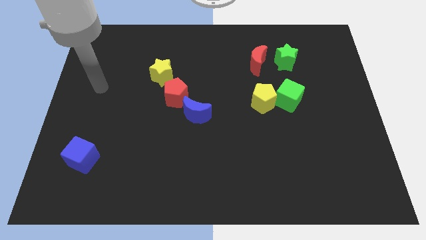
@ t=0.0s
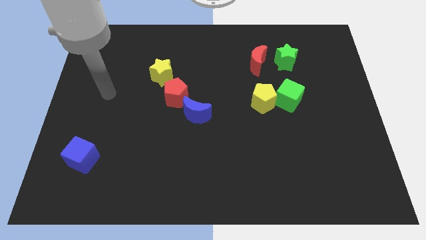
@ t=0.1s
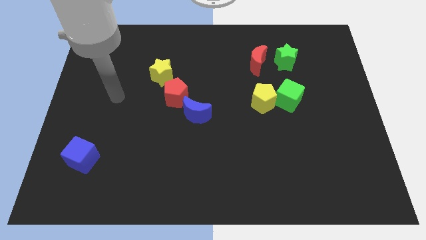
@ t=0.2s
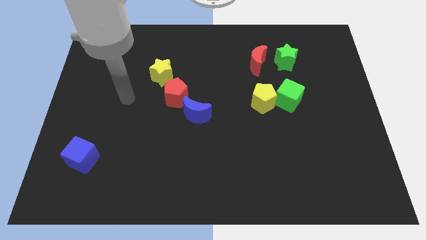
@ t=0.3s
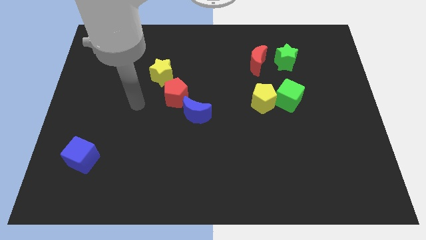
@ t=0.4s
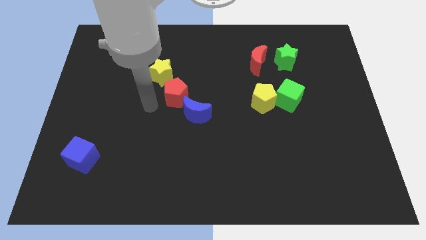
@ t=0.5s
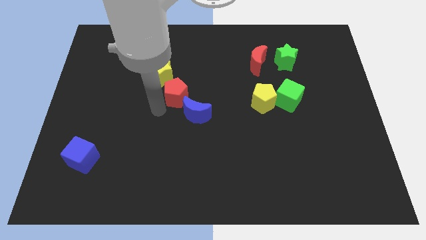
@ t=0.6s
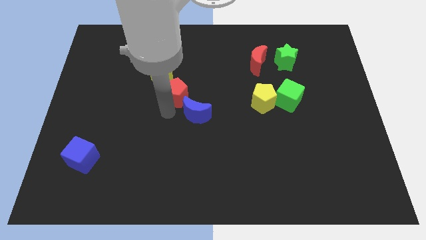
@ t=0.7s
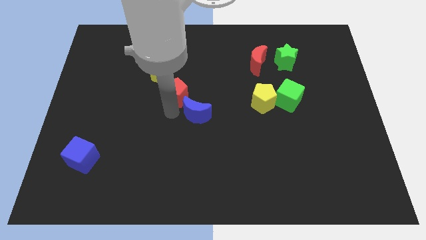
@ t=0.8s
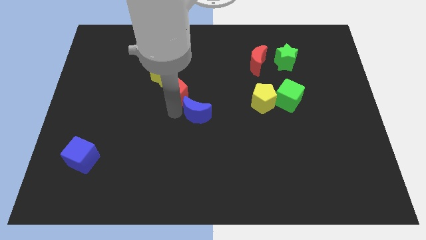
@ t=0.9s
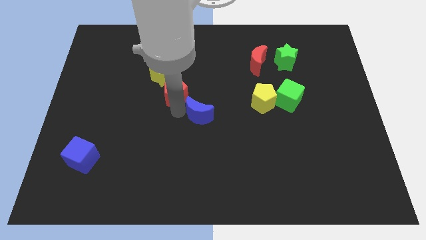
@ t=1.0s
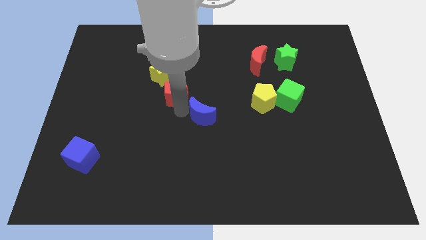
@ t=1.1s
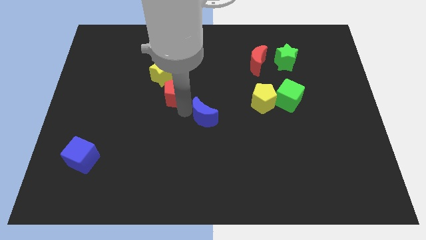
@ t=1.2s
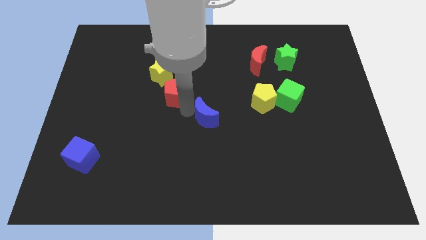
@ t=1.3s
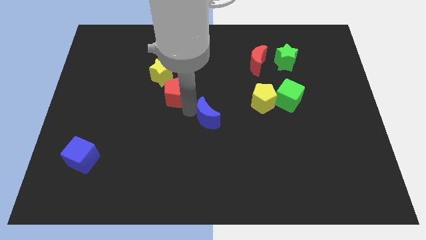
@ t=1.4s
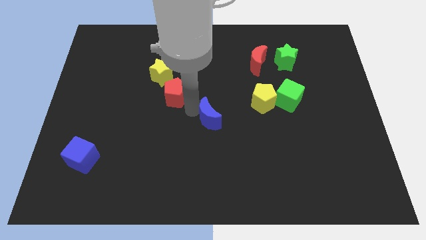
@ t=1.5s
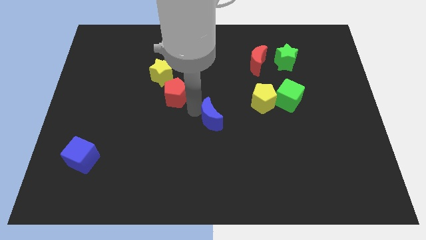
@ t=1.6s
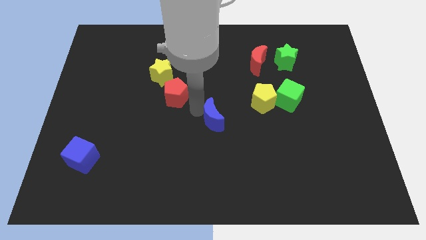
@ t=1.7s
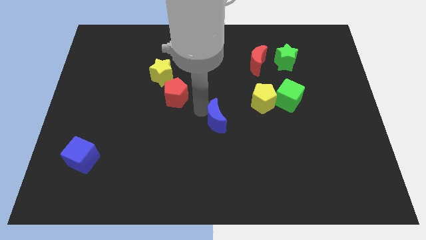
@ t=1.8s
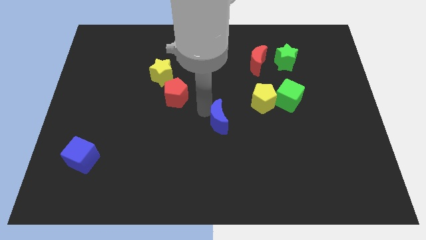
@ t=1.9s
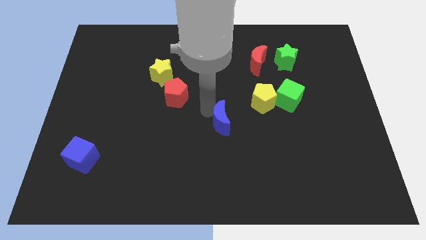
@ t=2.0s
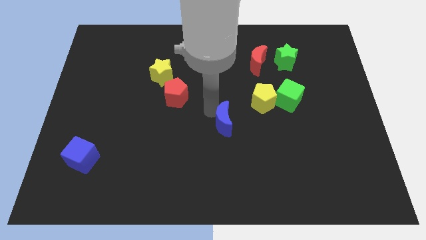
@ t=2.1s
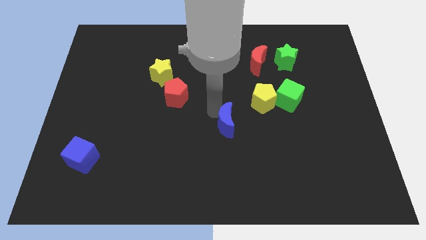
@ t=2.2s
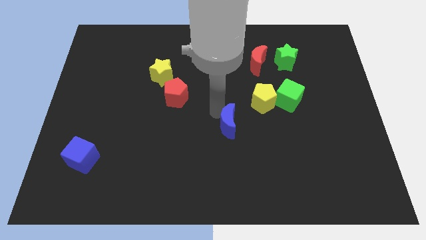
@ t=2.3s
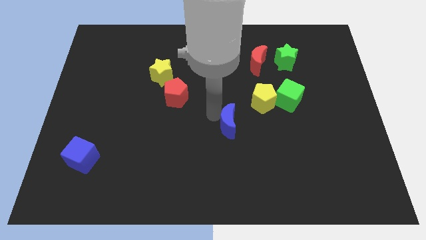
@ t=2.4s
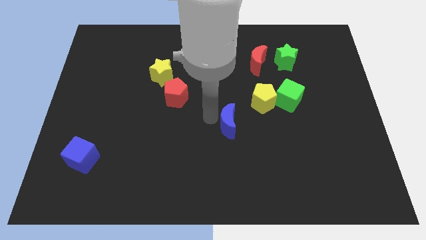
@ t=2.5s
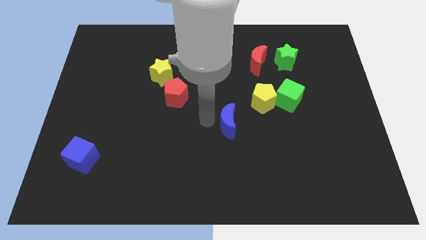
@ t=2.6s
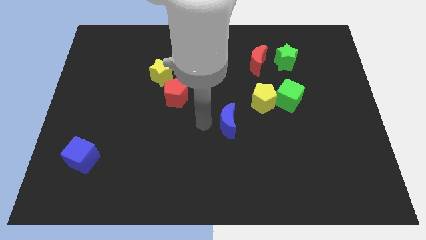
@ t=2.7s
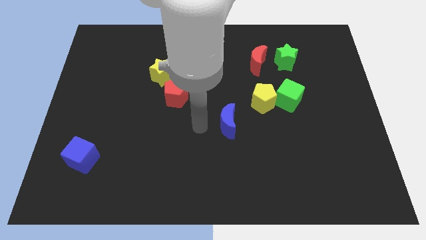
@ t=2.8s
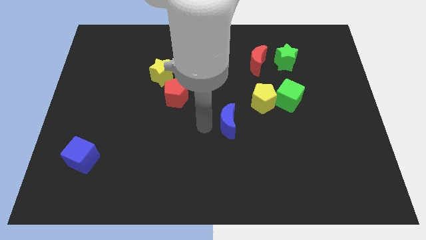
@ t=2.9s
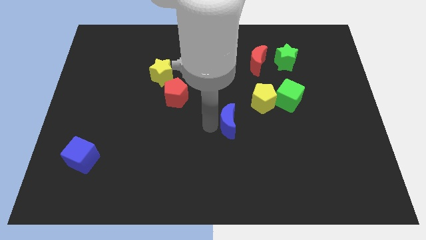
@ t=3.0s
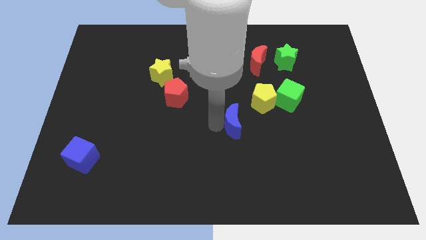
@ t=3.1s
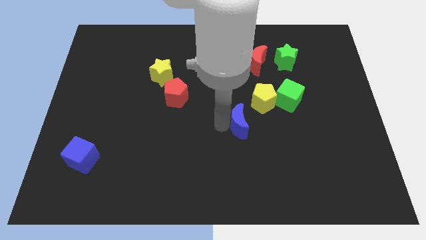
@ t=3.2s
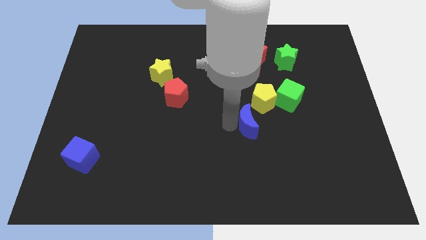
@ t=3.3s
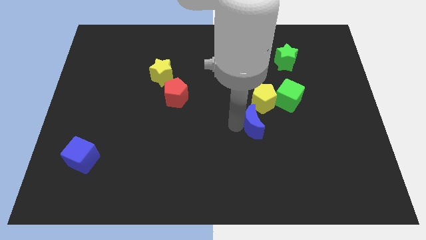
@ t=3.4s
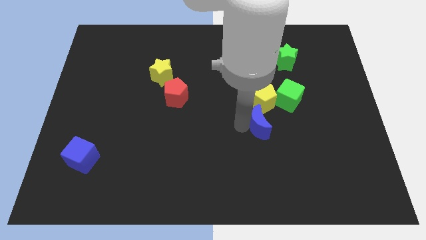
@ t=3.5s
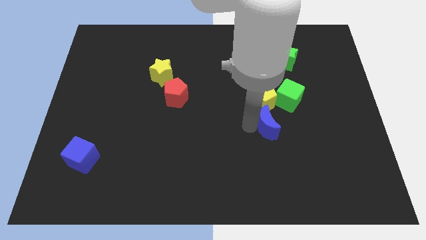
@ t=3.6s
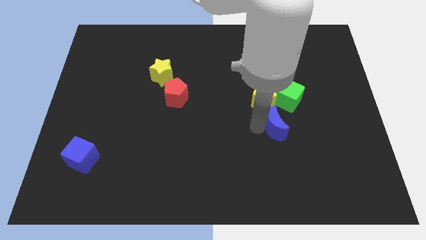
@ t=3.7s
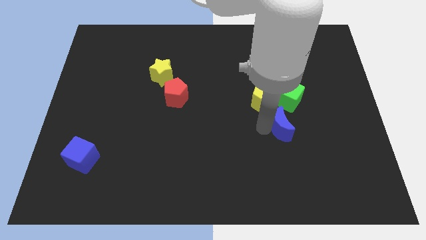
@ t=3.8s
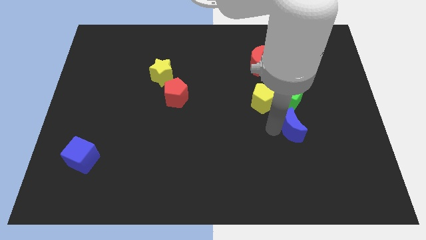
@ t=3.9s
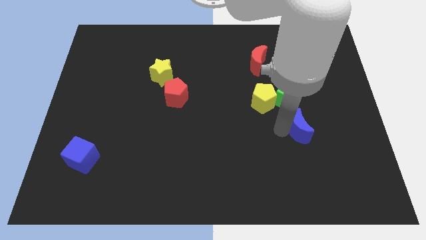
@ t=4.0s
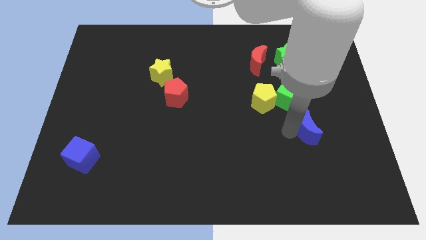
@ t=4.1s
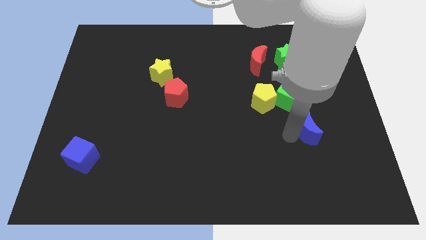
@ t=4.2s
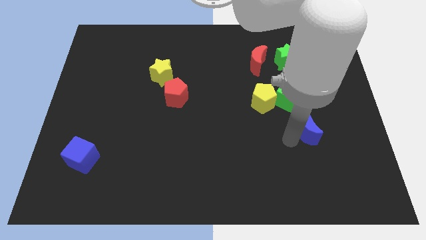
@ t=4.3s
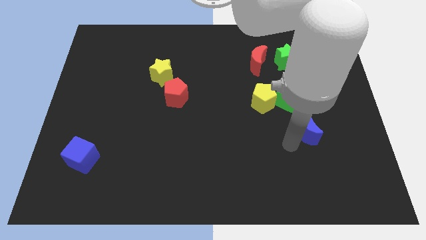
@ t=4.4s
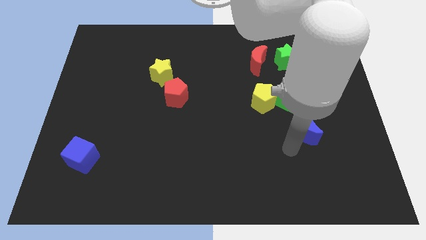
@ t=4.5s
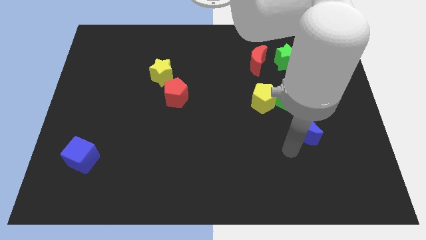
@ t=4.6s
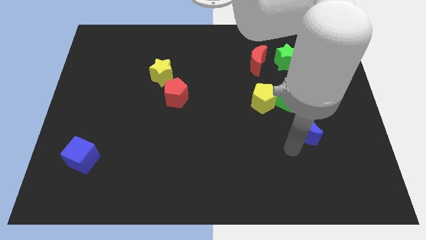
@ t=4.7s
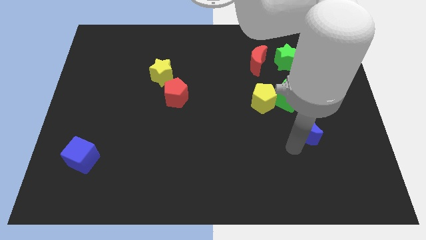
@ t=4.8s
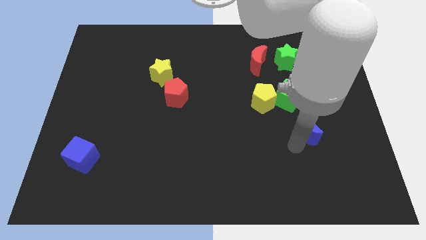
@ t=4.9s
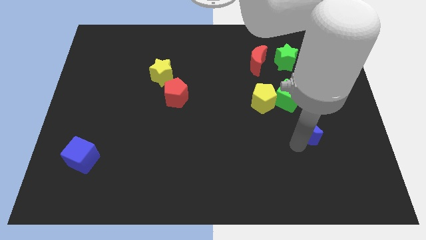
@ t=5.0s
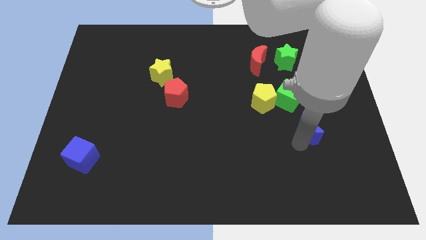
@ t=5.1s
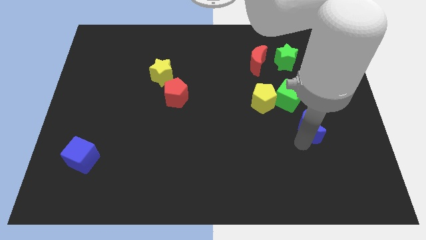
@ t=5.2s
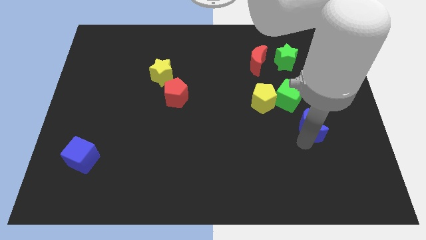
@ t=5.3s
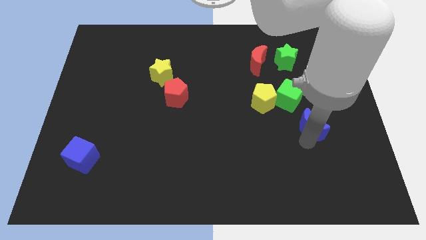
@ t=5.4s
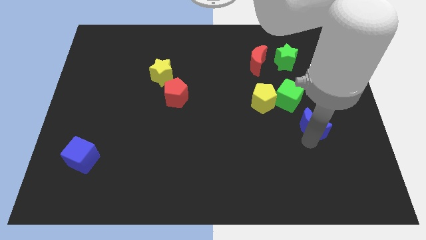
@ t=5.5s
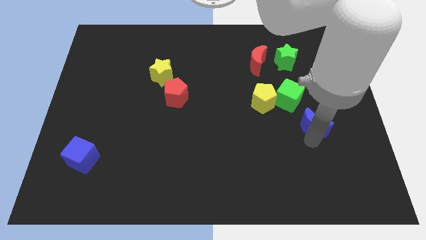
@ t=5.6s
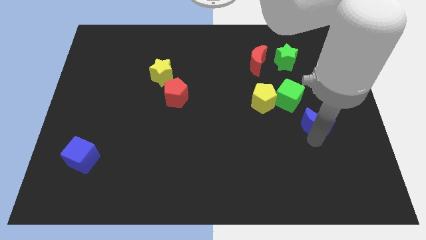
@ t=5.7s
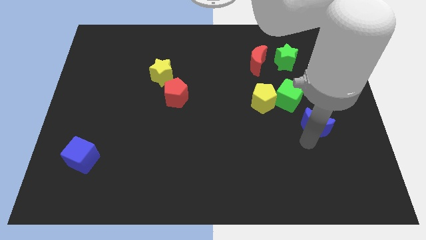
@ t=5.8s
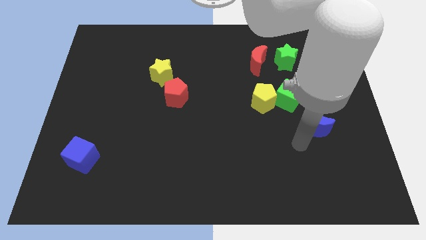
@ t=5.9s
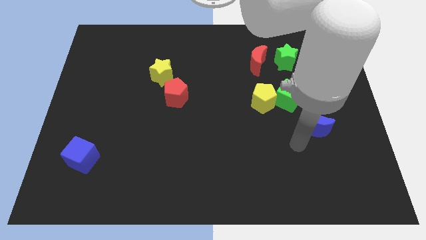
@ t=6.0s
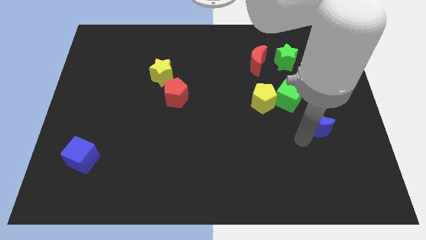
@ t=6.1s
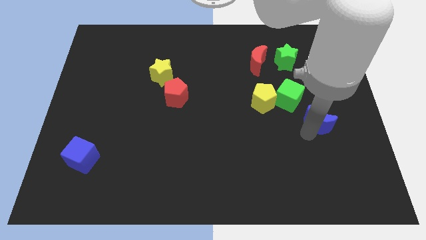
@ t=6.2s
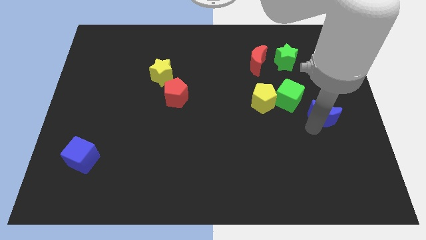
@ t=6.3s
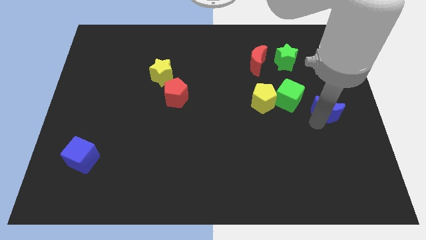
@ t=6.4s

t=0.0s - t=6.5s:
put the blue moon to the center right
